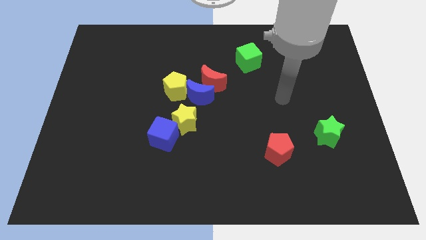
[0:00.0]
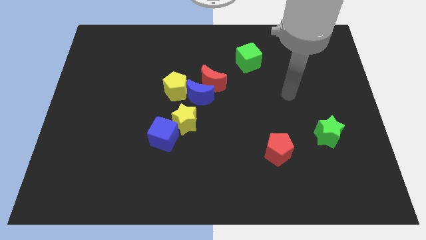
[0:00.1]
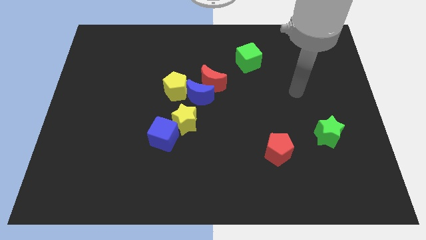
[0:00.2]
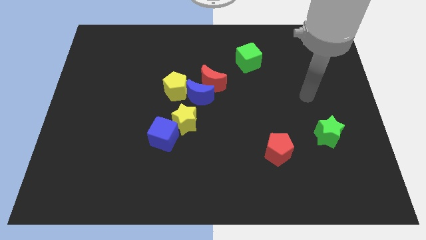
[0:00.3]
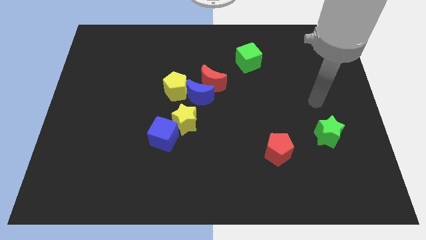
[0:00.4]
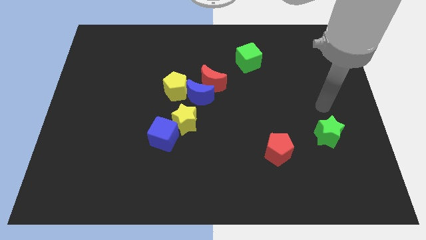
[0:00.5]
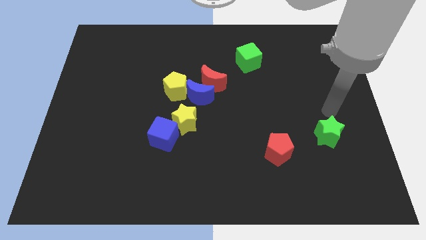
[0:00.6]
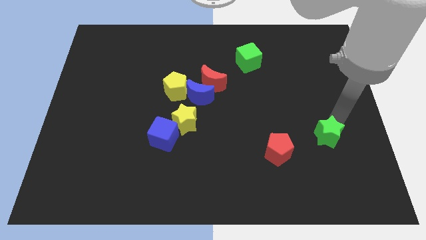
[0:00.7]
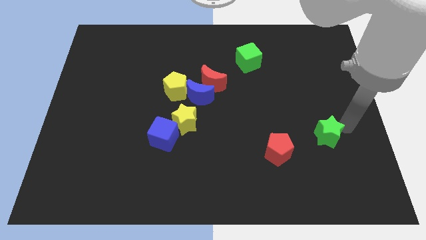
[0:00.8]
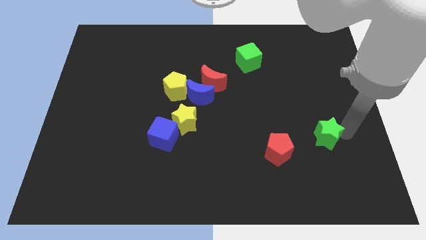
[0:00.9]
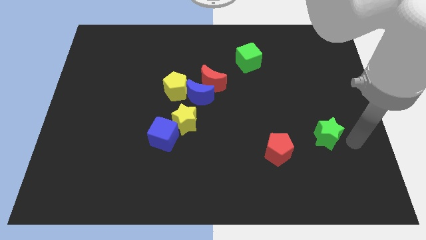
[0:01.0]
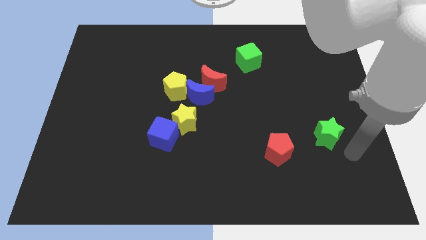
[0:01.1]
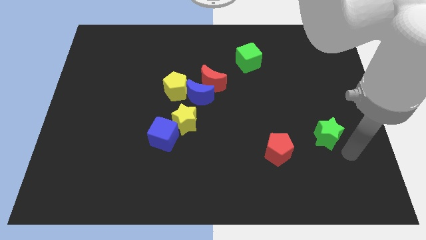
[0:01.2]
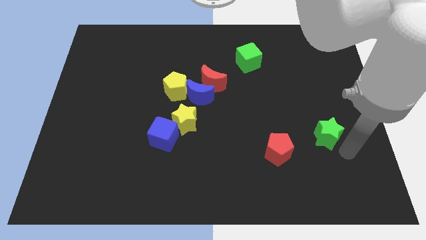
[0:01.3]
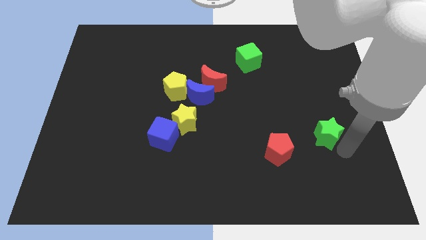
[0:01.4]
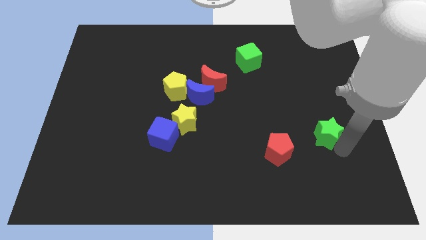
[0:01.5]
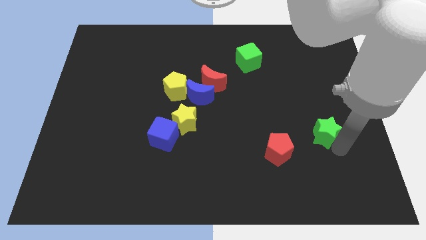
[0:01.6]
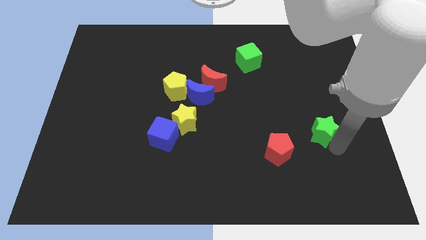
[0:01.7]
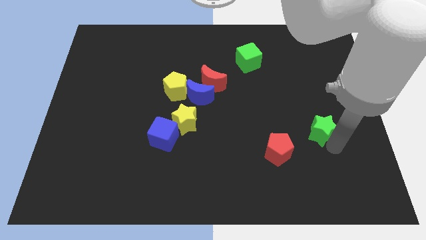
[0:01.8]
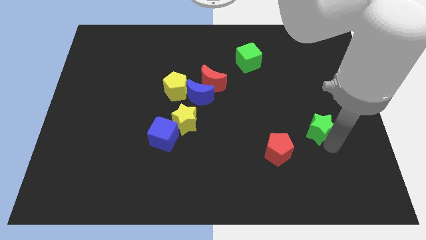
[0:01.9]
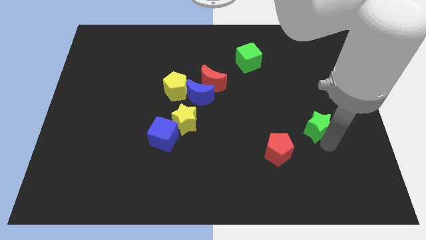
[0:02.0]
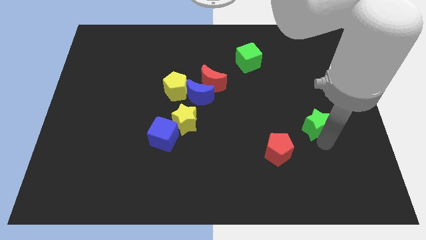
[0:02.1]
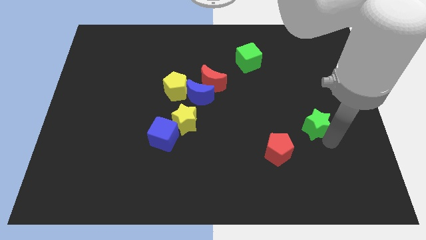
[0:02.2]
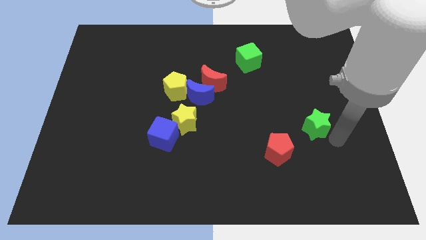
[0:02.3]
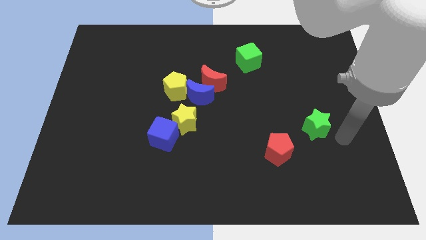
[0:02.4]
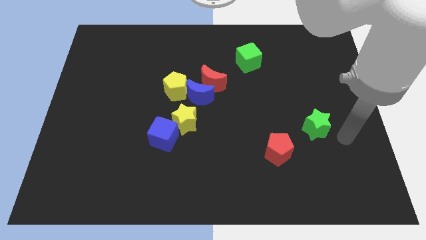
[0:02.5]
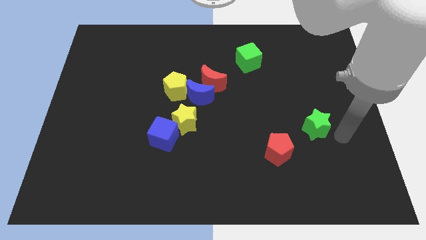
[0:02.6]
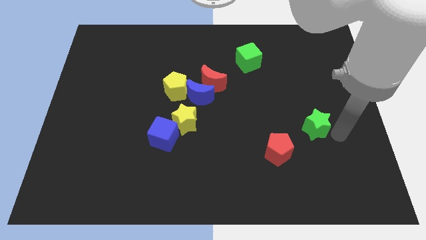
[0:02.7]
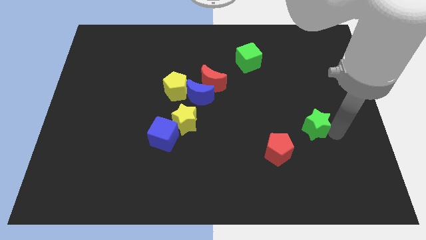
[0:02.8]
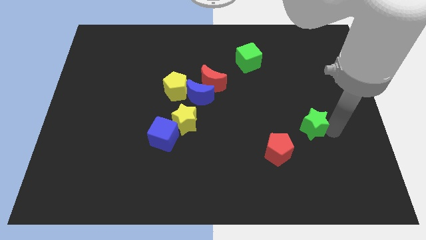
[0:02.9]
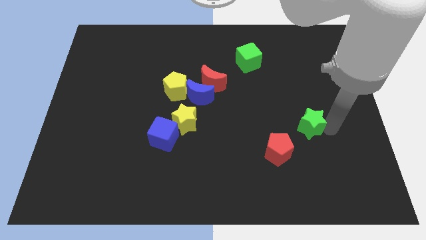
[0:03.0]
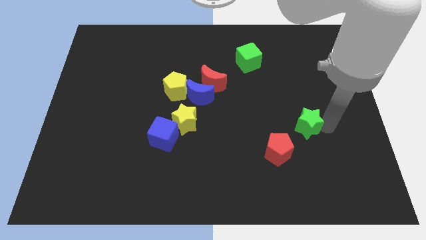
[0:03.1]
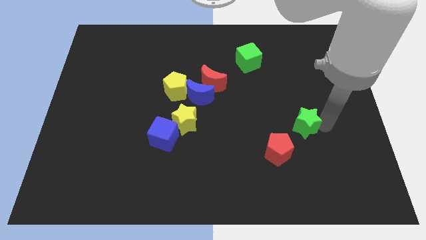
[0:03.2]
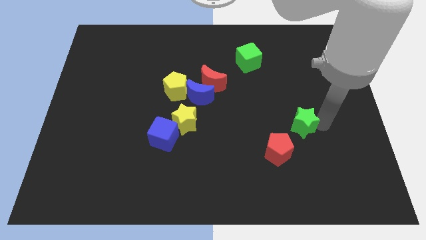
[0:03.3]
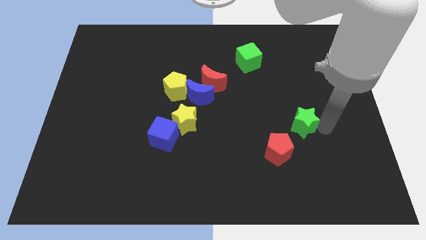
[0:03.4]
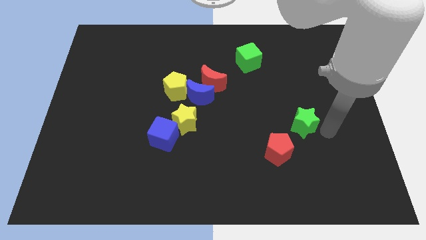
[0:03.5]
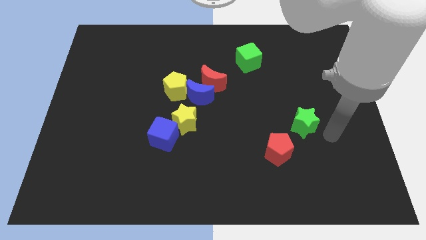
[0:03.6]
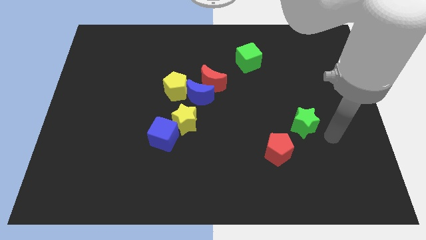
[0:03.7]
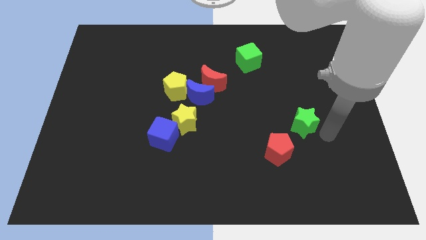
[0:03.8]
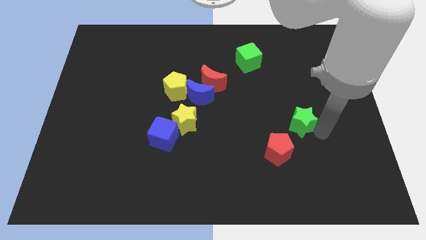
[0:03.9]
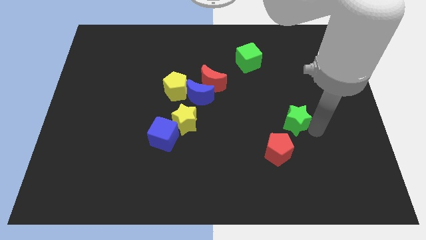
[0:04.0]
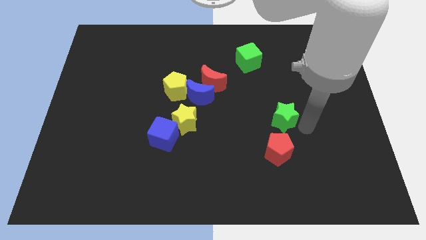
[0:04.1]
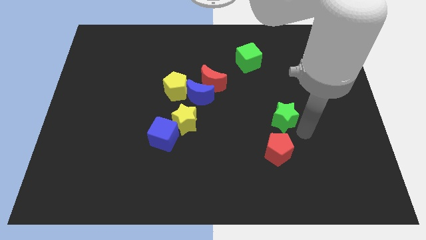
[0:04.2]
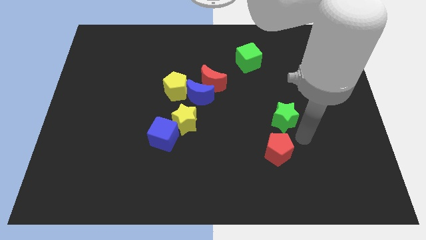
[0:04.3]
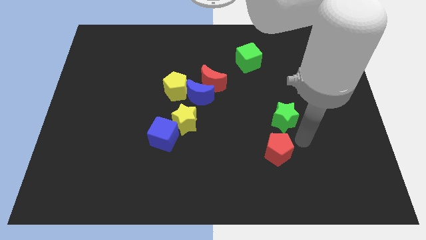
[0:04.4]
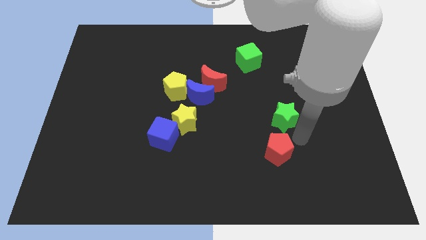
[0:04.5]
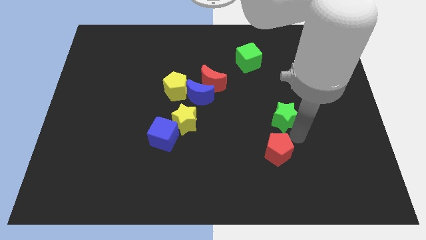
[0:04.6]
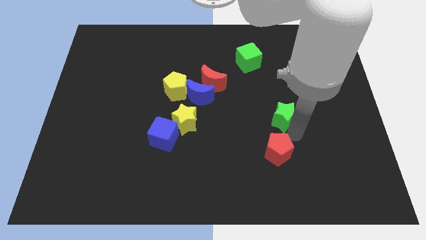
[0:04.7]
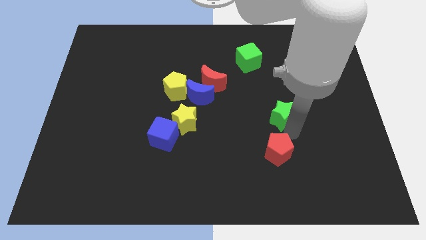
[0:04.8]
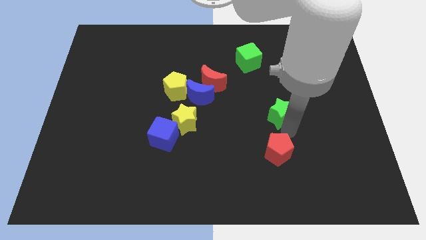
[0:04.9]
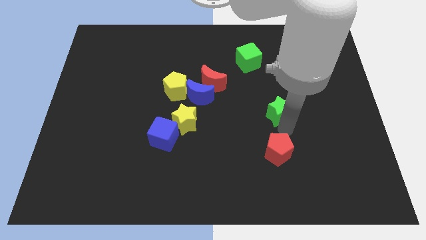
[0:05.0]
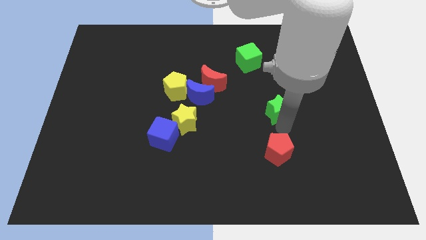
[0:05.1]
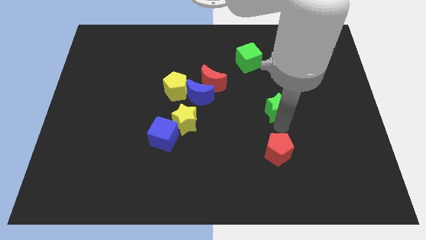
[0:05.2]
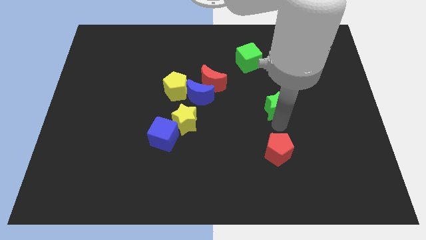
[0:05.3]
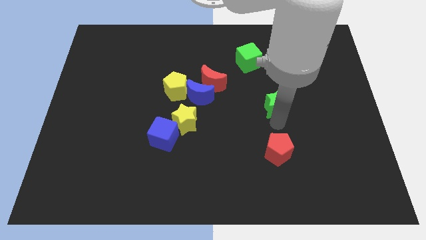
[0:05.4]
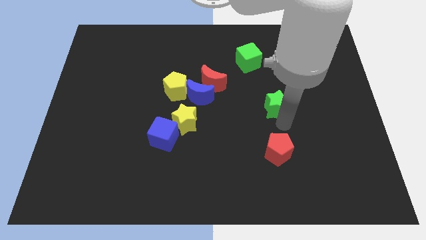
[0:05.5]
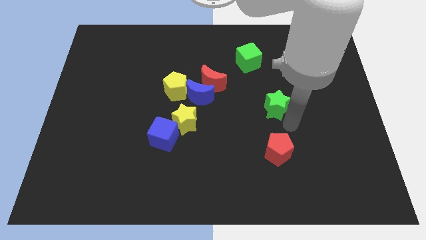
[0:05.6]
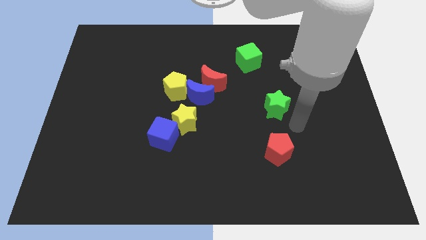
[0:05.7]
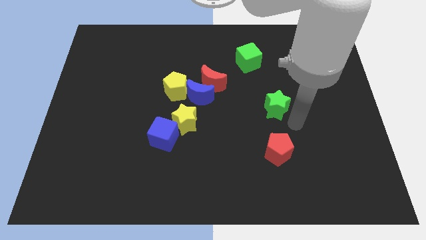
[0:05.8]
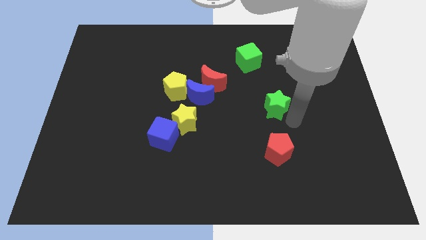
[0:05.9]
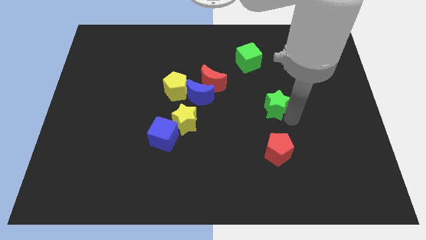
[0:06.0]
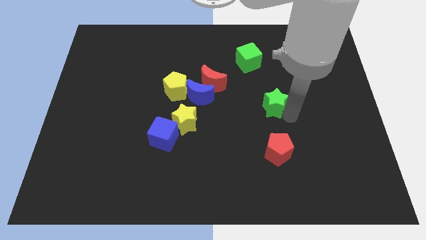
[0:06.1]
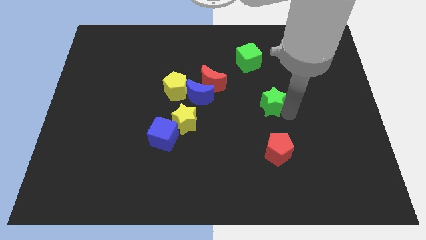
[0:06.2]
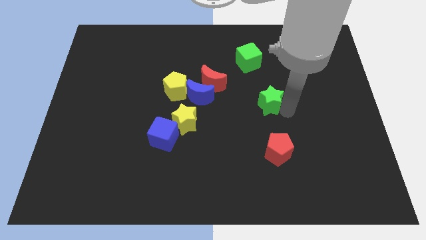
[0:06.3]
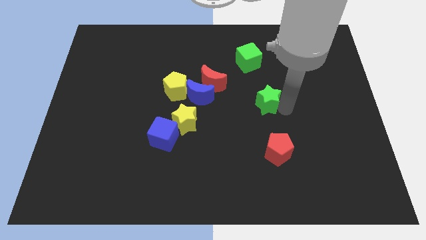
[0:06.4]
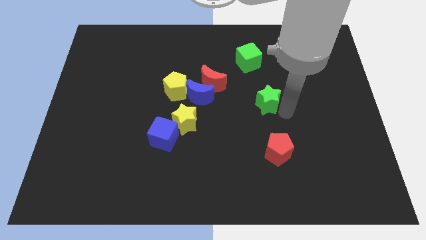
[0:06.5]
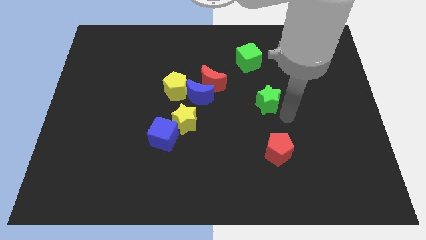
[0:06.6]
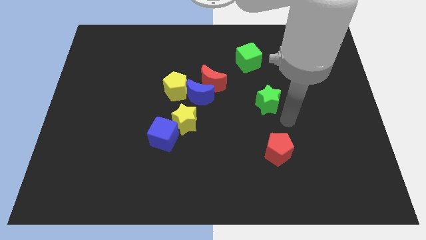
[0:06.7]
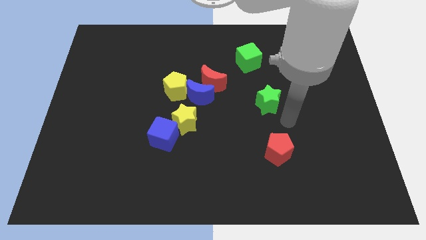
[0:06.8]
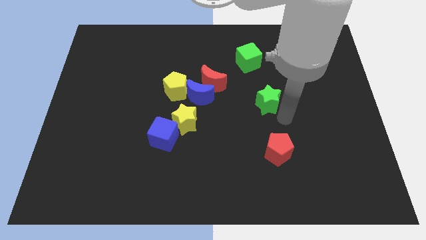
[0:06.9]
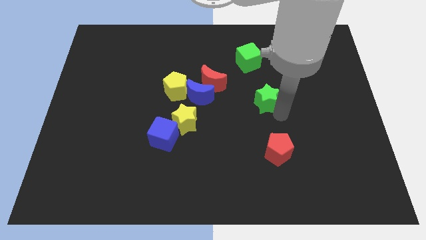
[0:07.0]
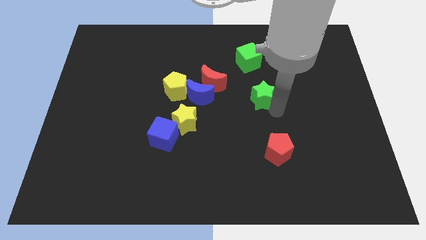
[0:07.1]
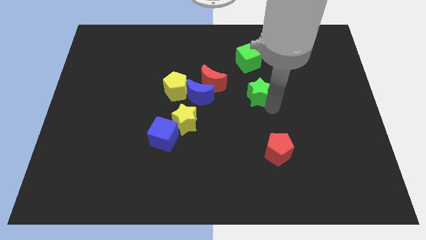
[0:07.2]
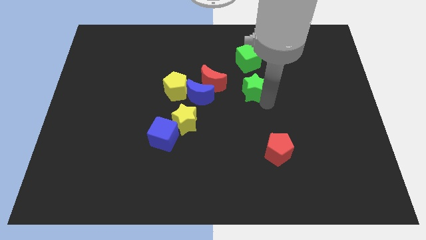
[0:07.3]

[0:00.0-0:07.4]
push the green star upwards and to the left

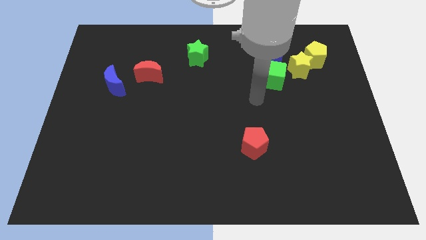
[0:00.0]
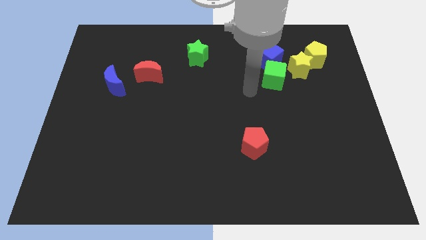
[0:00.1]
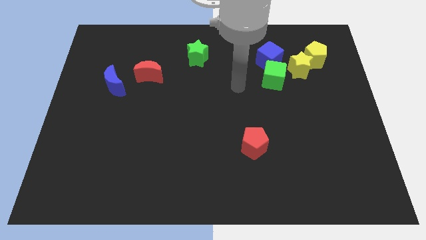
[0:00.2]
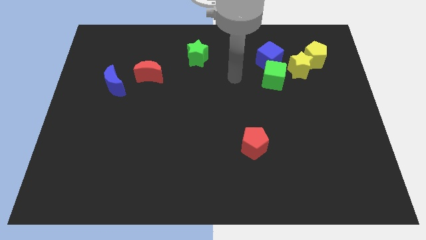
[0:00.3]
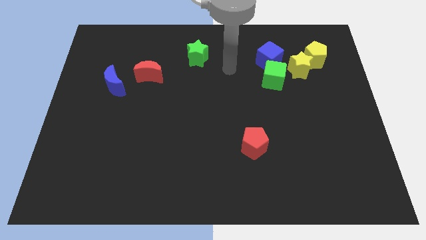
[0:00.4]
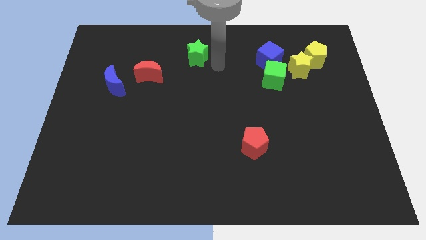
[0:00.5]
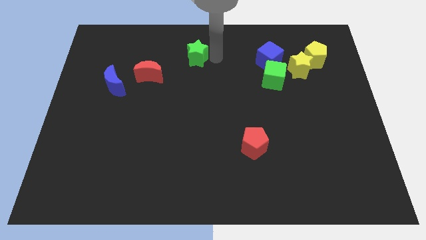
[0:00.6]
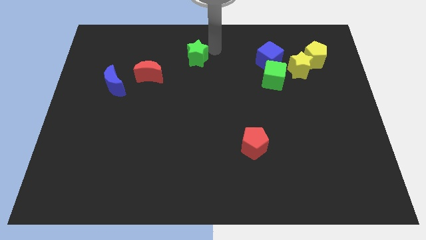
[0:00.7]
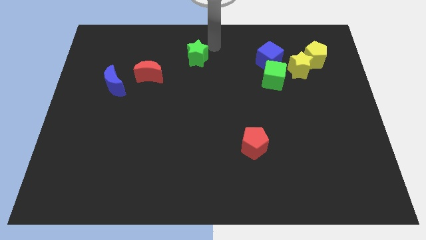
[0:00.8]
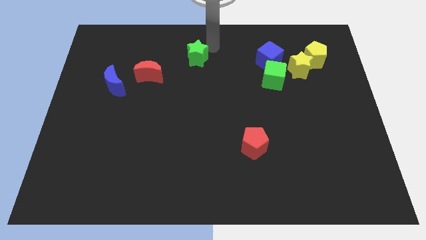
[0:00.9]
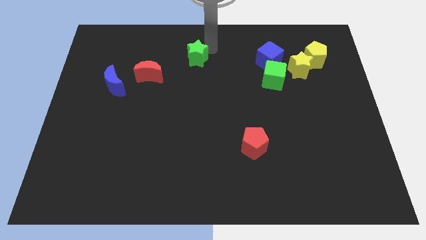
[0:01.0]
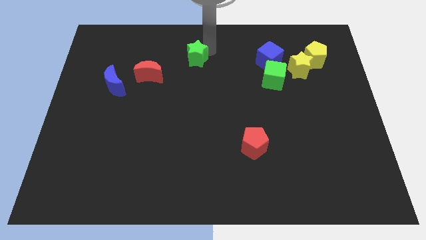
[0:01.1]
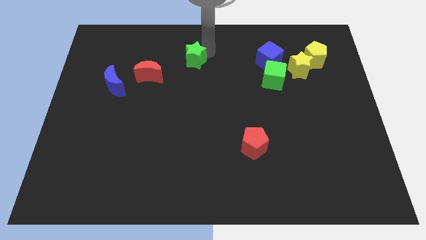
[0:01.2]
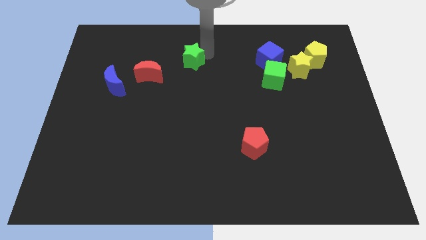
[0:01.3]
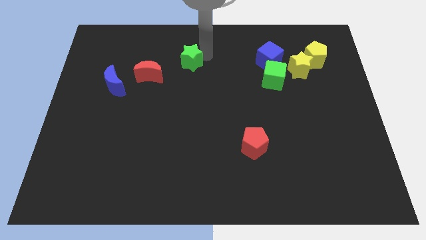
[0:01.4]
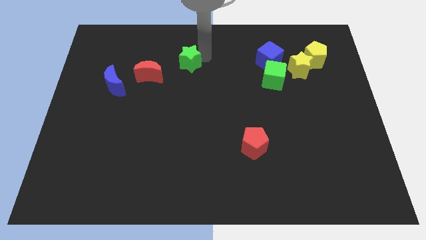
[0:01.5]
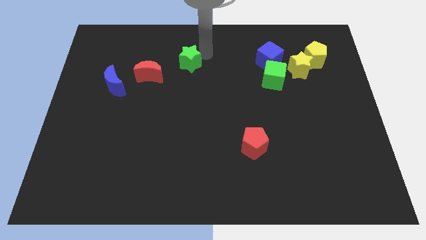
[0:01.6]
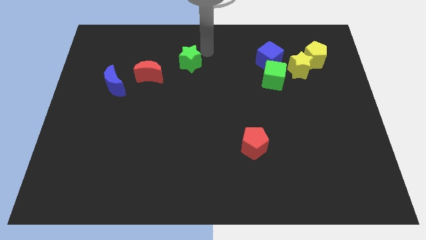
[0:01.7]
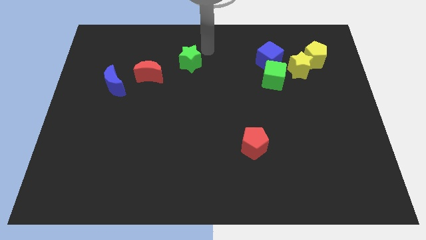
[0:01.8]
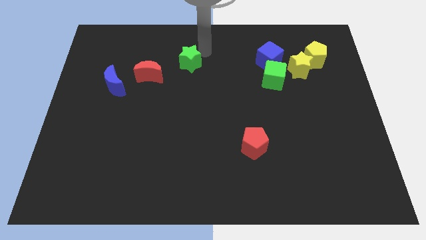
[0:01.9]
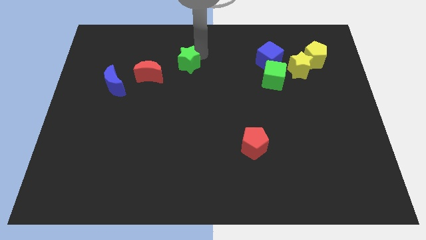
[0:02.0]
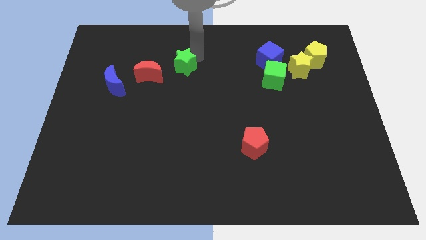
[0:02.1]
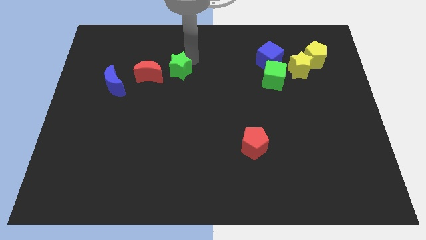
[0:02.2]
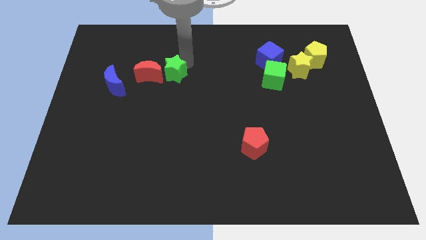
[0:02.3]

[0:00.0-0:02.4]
move the green star down and left diagonally a bit
